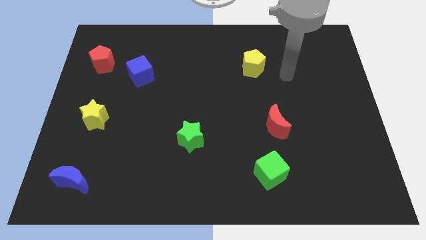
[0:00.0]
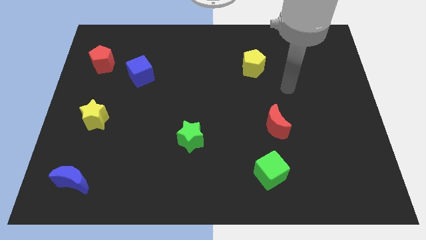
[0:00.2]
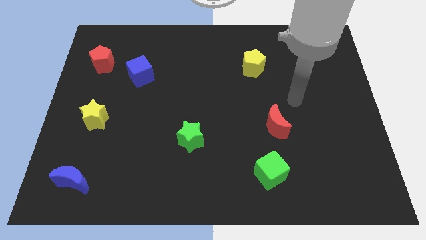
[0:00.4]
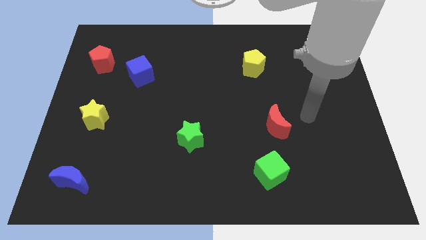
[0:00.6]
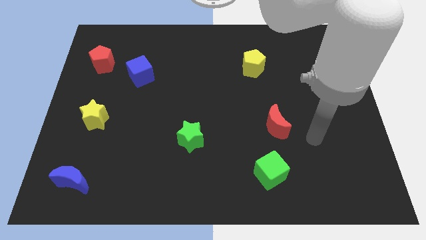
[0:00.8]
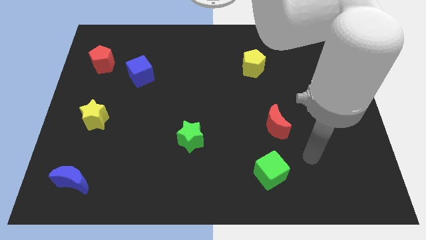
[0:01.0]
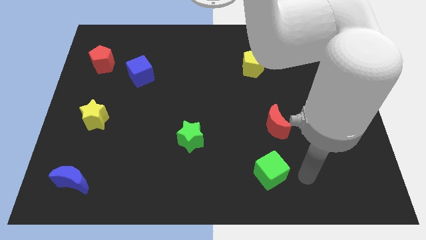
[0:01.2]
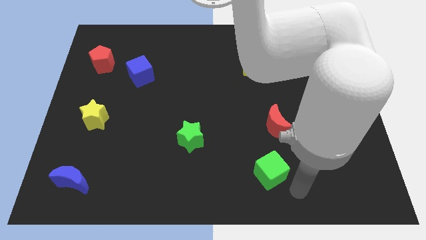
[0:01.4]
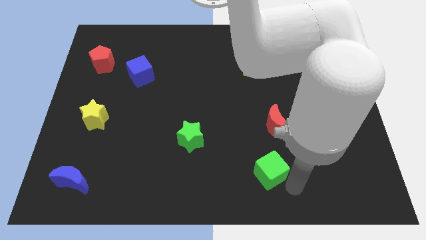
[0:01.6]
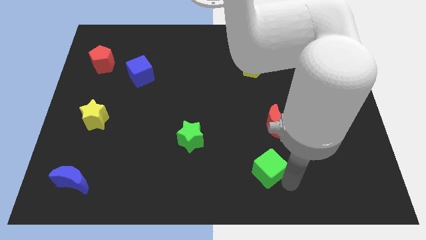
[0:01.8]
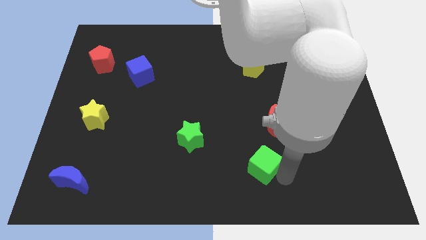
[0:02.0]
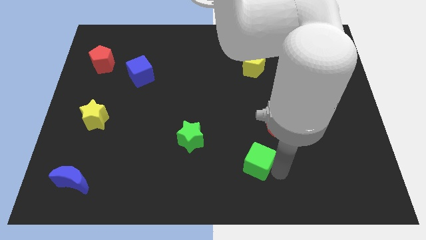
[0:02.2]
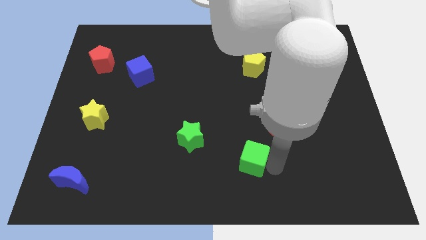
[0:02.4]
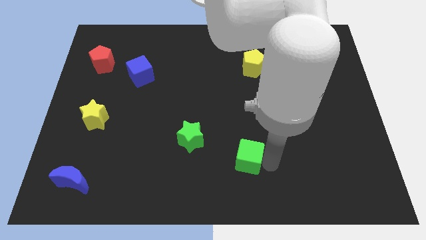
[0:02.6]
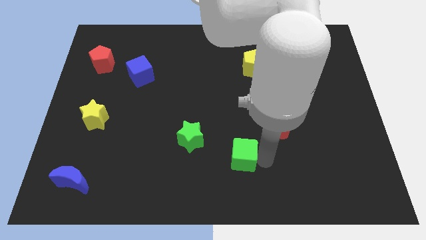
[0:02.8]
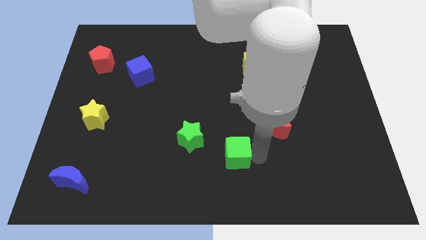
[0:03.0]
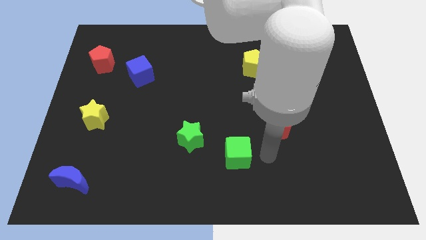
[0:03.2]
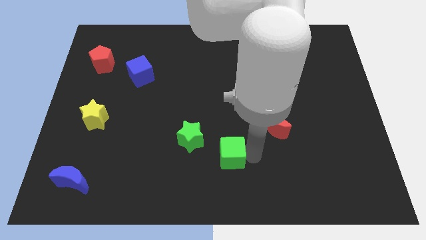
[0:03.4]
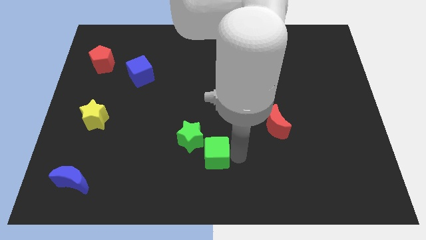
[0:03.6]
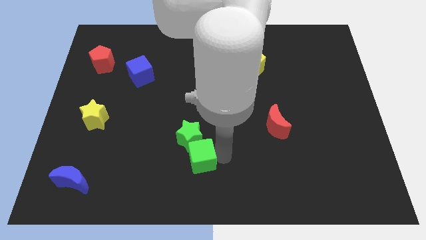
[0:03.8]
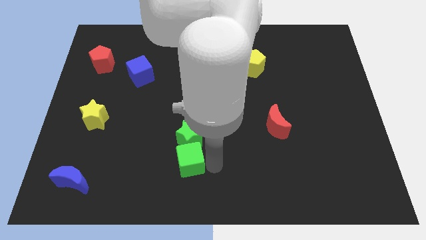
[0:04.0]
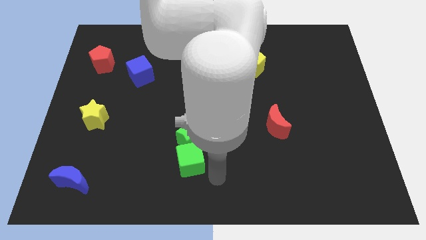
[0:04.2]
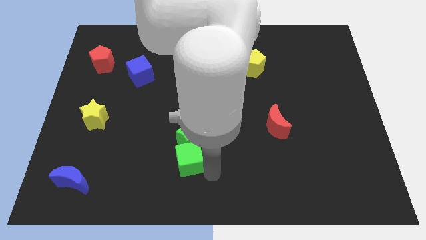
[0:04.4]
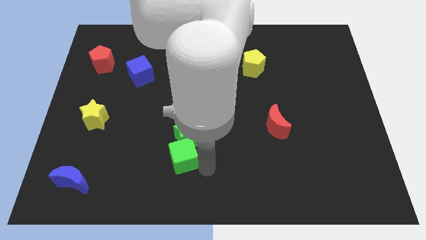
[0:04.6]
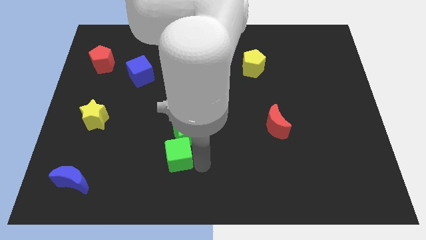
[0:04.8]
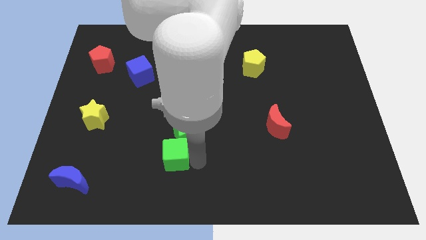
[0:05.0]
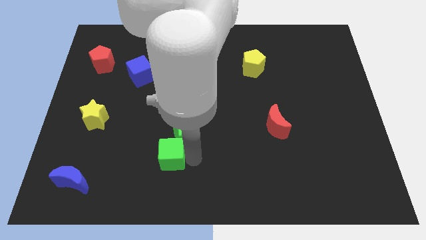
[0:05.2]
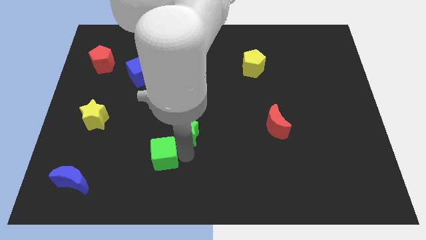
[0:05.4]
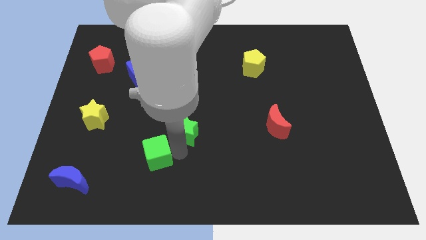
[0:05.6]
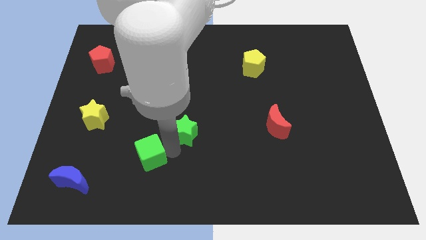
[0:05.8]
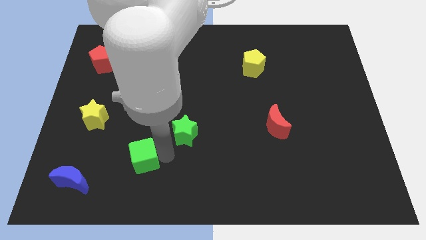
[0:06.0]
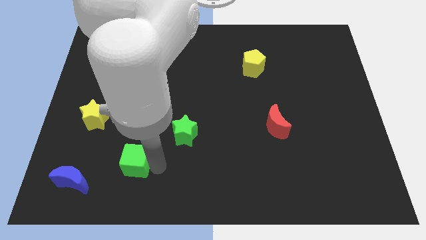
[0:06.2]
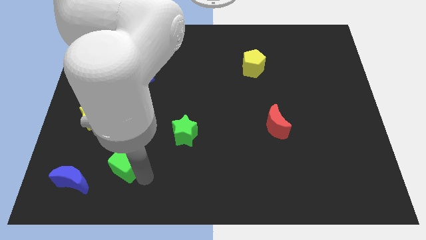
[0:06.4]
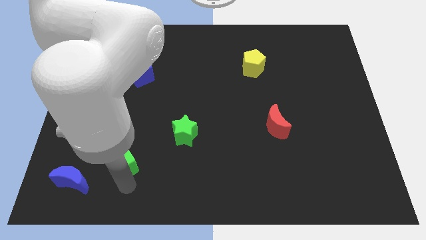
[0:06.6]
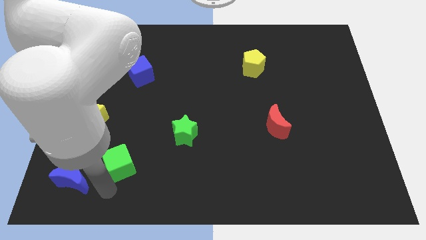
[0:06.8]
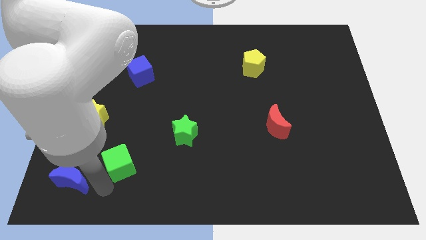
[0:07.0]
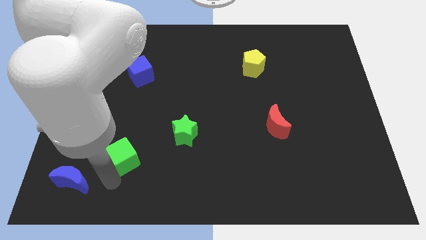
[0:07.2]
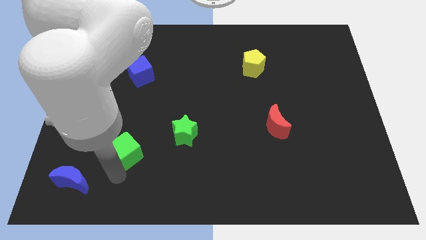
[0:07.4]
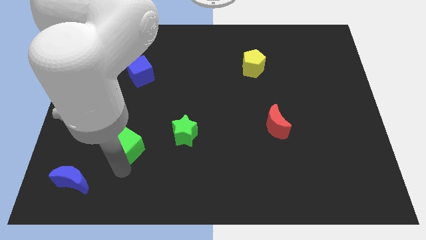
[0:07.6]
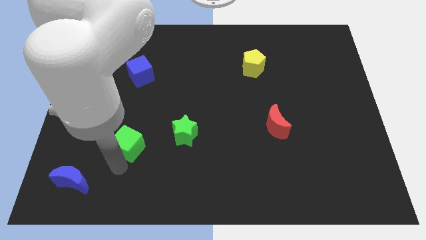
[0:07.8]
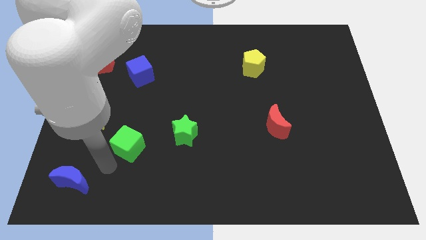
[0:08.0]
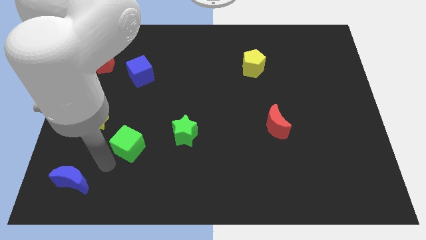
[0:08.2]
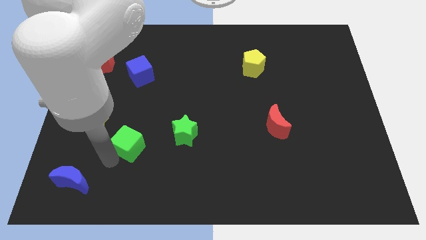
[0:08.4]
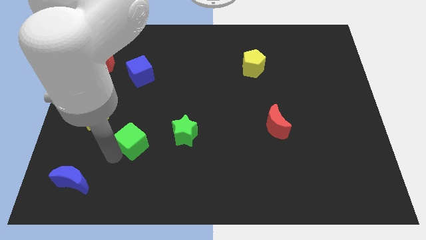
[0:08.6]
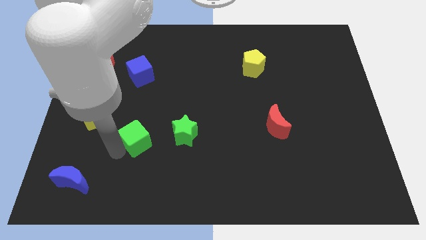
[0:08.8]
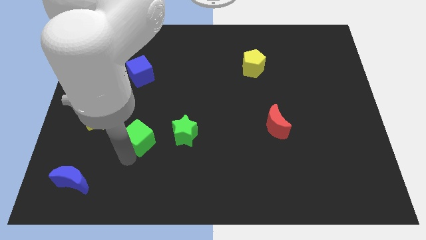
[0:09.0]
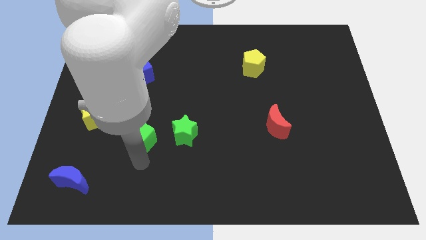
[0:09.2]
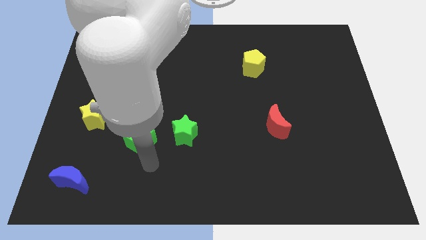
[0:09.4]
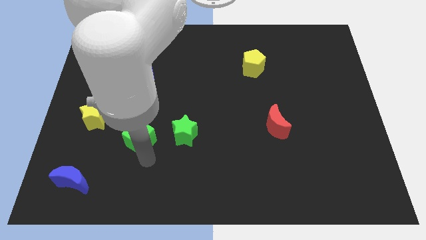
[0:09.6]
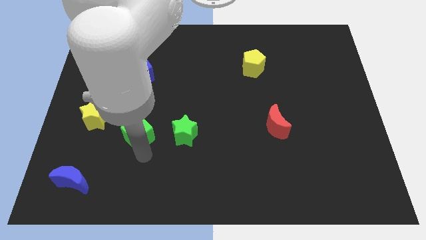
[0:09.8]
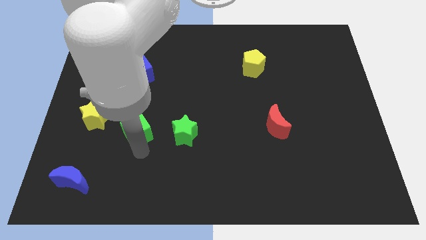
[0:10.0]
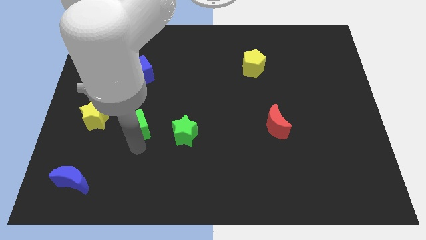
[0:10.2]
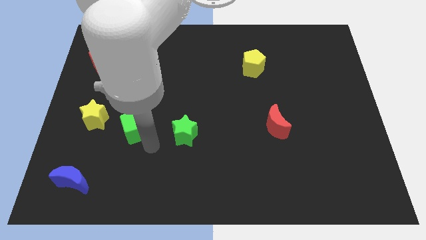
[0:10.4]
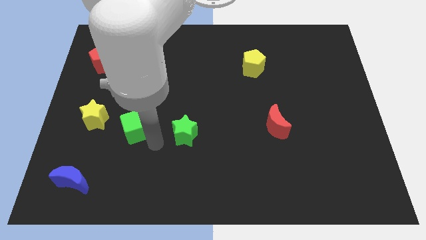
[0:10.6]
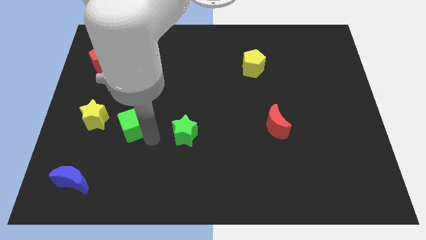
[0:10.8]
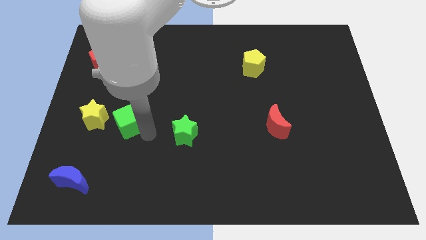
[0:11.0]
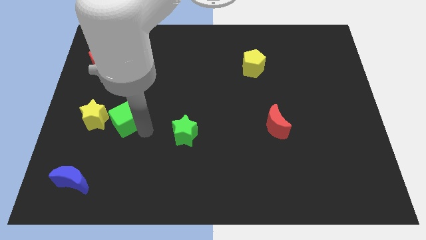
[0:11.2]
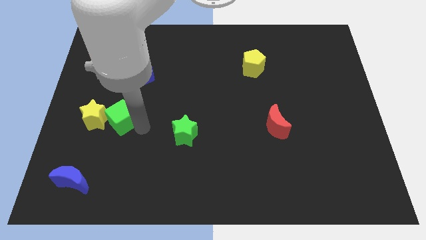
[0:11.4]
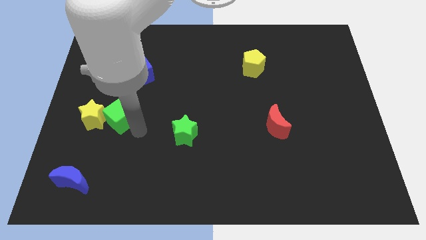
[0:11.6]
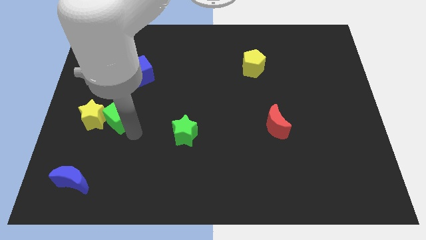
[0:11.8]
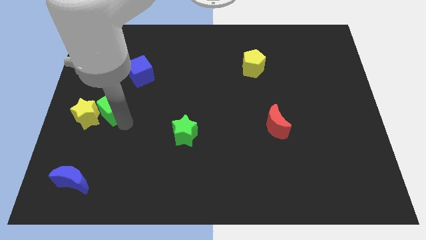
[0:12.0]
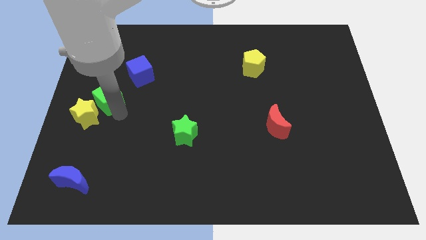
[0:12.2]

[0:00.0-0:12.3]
push the green cube to the left side
